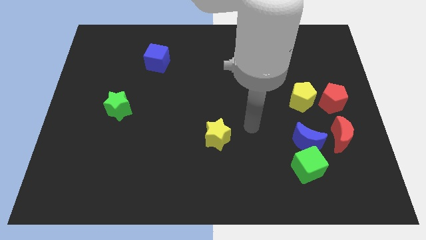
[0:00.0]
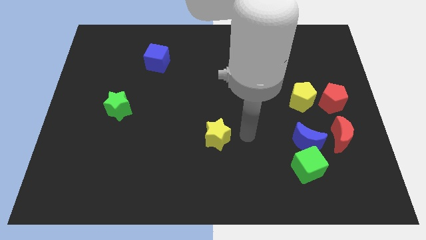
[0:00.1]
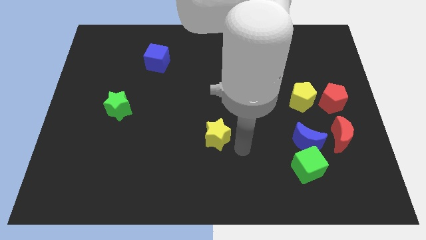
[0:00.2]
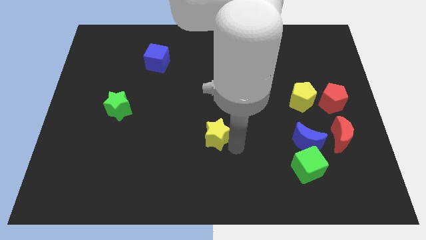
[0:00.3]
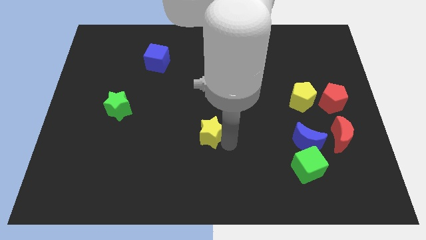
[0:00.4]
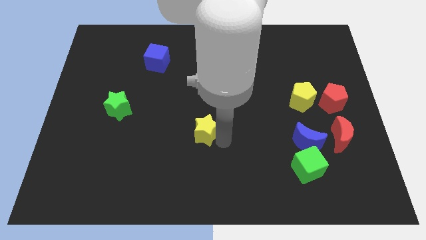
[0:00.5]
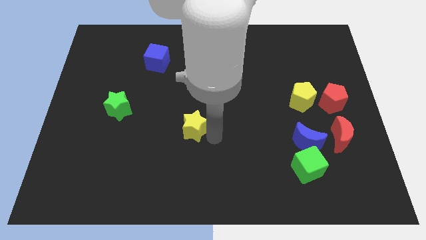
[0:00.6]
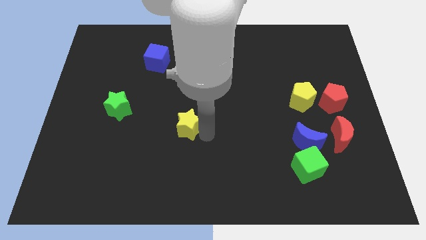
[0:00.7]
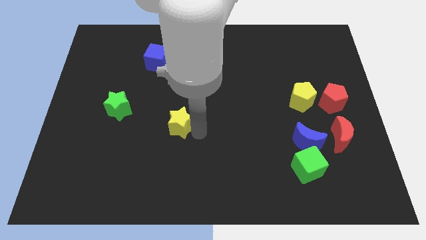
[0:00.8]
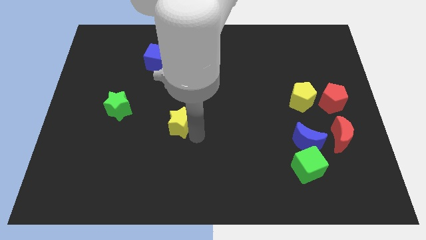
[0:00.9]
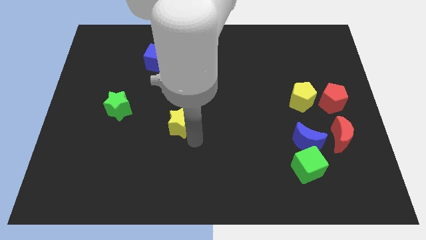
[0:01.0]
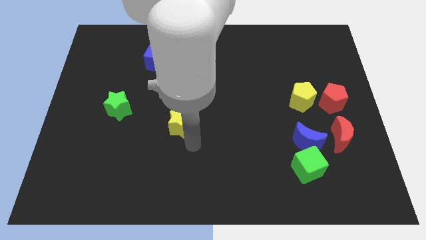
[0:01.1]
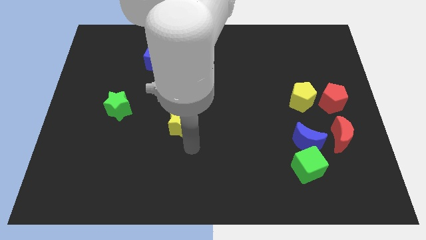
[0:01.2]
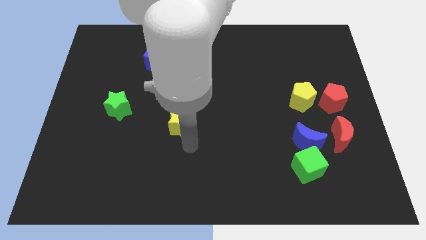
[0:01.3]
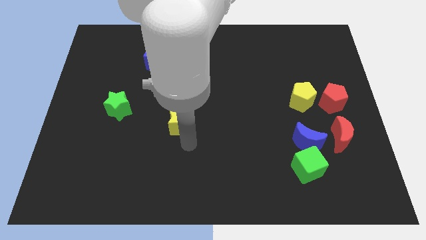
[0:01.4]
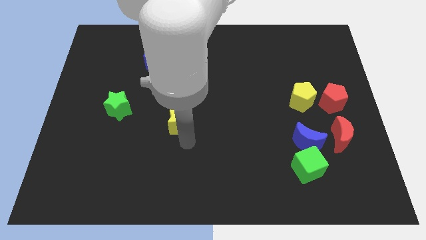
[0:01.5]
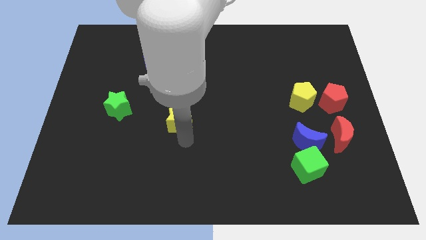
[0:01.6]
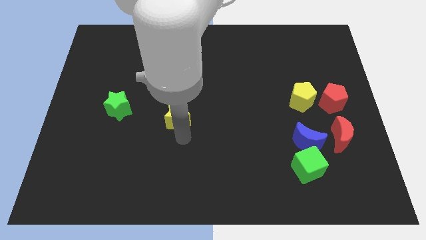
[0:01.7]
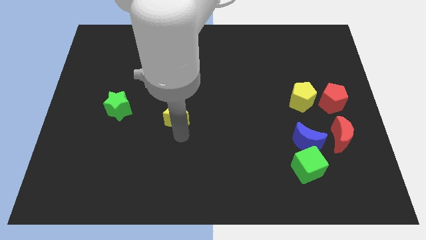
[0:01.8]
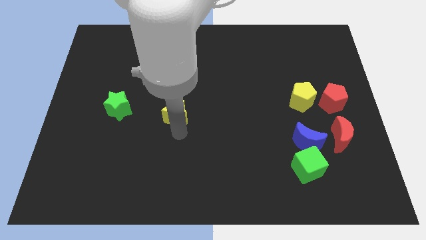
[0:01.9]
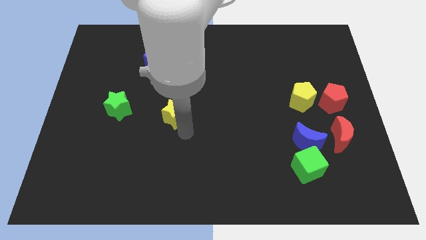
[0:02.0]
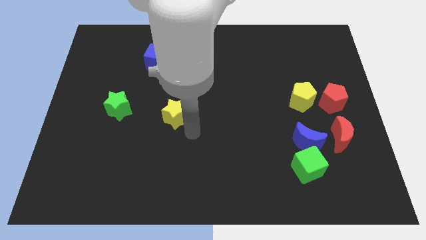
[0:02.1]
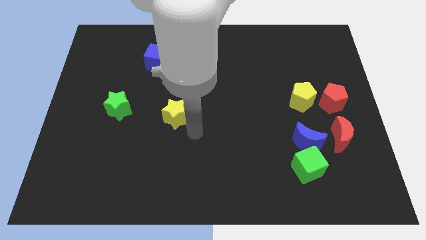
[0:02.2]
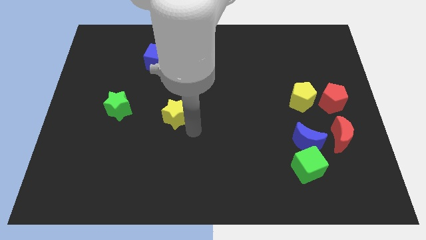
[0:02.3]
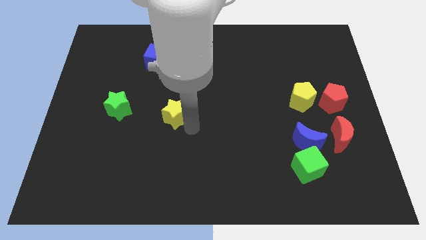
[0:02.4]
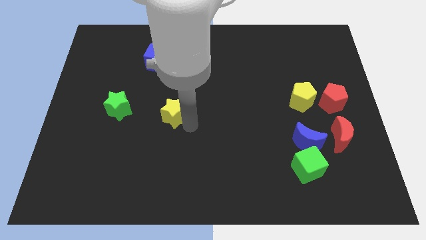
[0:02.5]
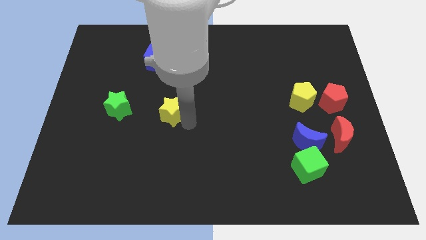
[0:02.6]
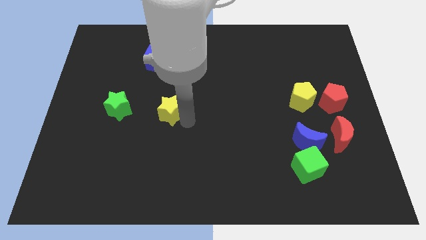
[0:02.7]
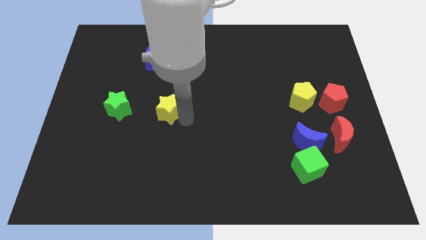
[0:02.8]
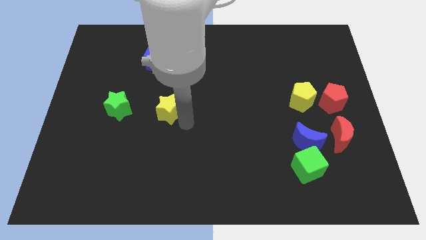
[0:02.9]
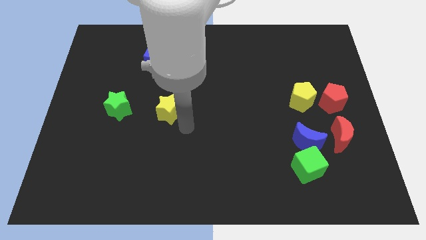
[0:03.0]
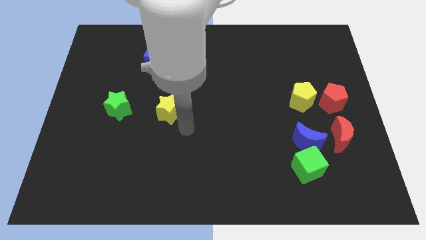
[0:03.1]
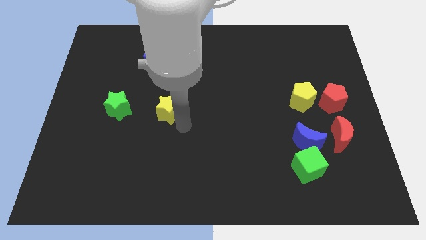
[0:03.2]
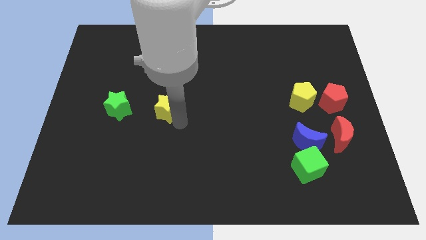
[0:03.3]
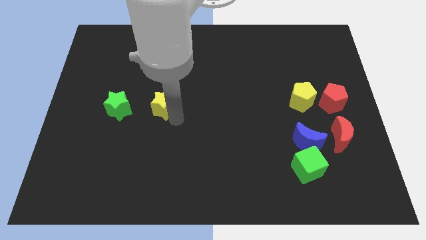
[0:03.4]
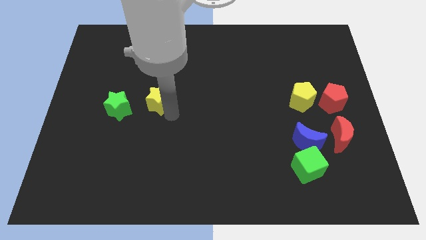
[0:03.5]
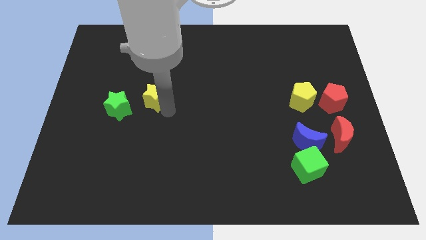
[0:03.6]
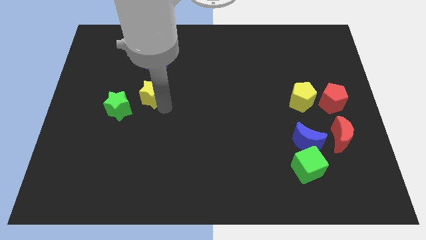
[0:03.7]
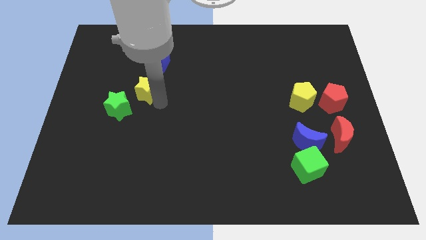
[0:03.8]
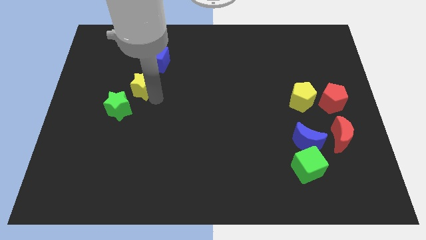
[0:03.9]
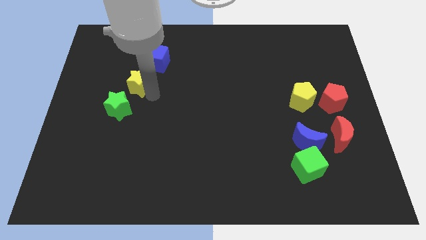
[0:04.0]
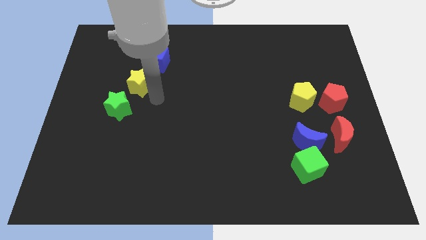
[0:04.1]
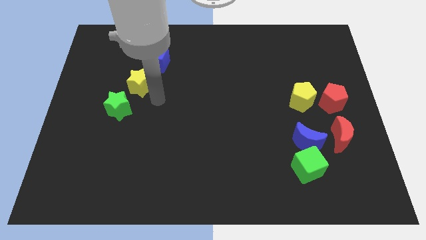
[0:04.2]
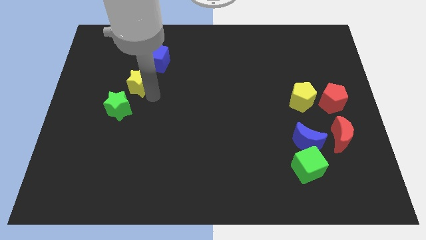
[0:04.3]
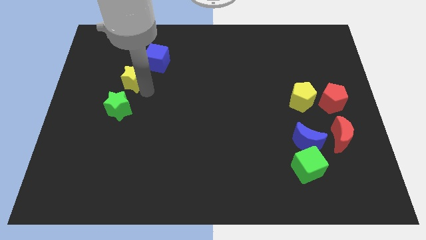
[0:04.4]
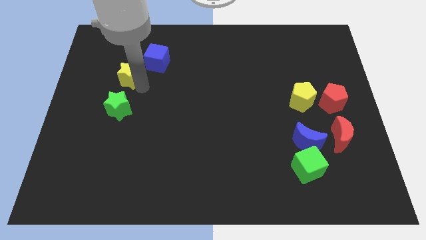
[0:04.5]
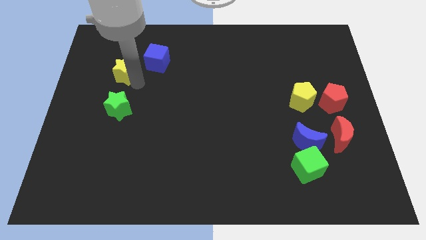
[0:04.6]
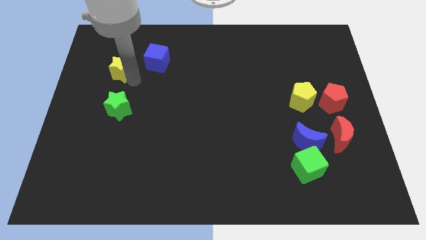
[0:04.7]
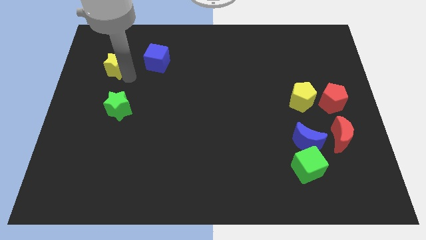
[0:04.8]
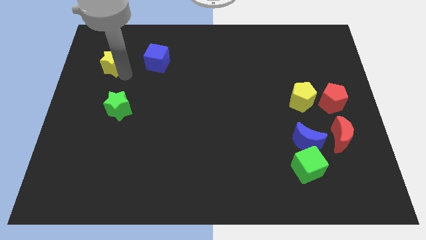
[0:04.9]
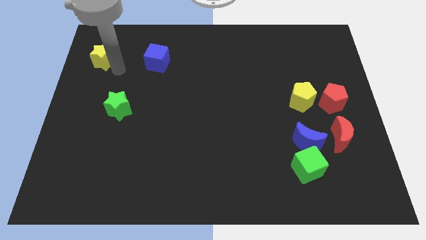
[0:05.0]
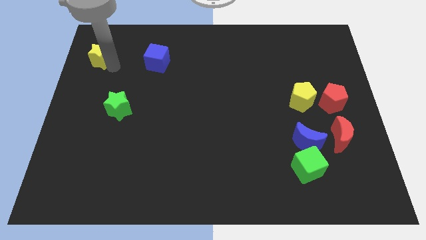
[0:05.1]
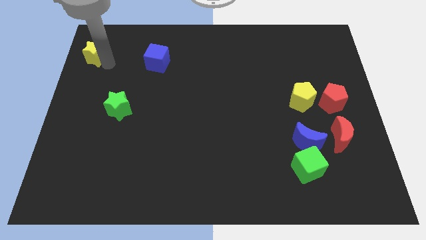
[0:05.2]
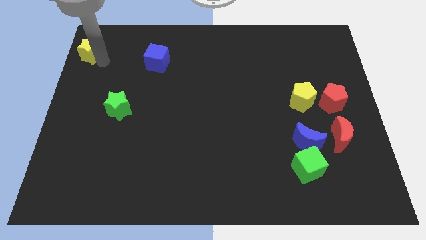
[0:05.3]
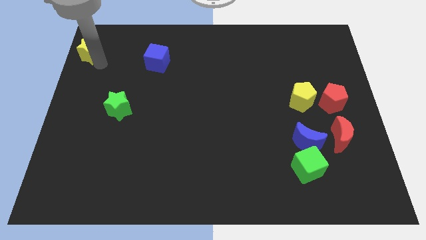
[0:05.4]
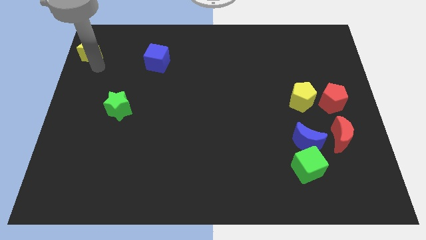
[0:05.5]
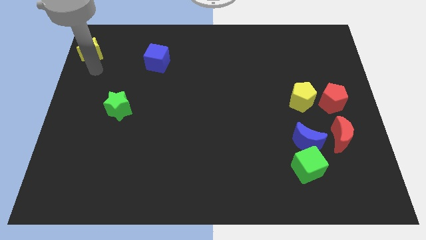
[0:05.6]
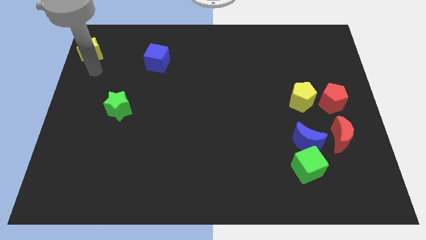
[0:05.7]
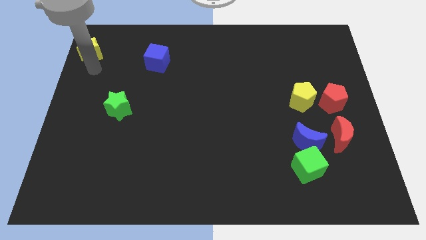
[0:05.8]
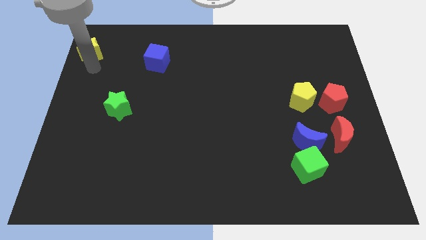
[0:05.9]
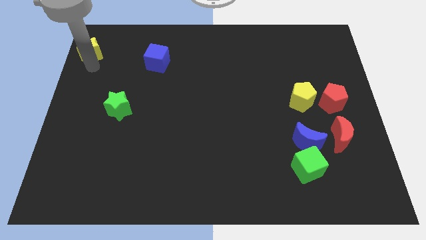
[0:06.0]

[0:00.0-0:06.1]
move the yellow star to the top left of the board
